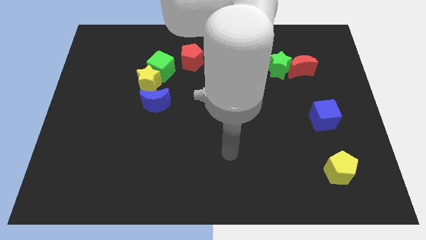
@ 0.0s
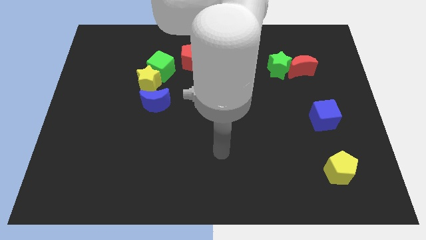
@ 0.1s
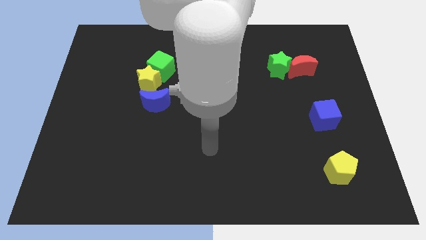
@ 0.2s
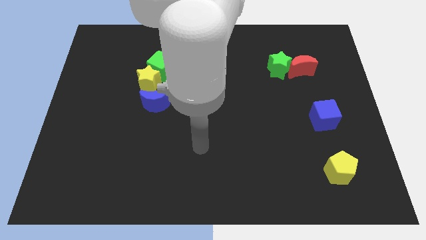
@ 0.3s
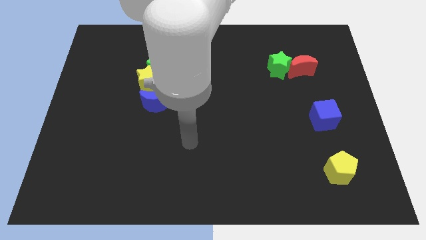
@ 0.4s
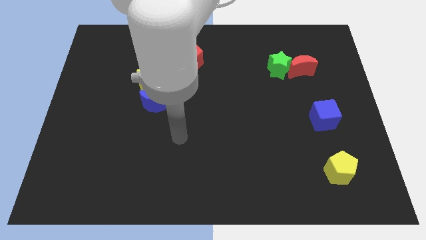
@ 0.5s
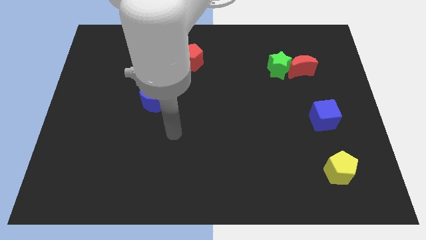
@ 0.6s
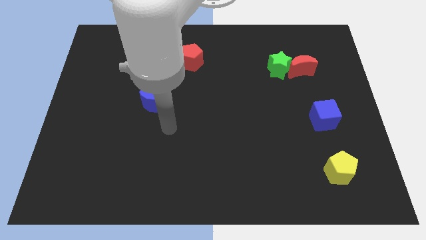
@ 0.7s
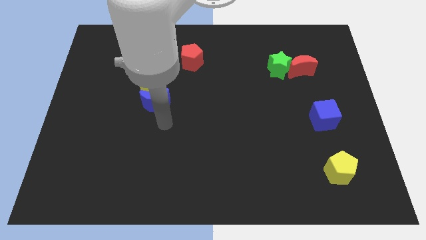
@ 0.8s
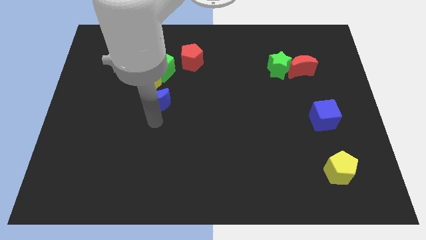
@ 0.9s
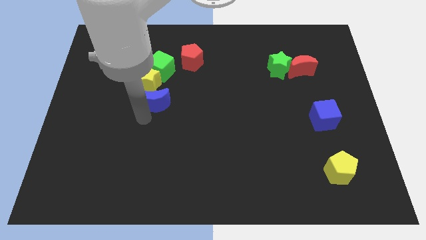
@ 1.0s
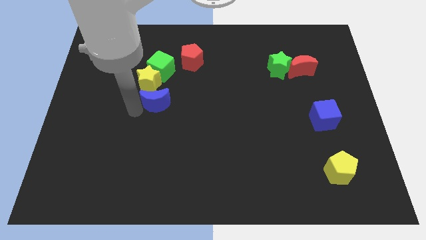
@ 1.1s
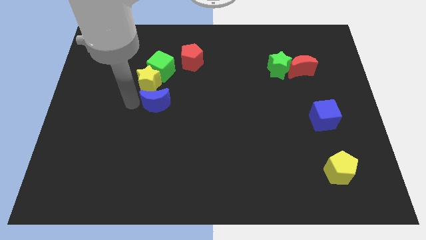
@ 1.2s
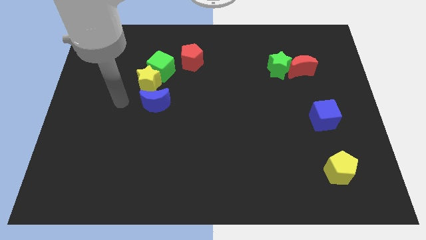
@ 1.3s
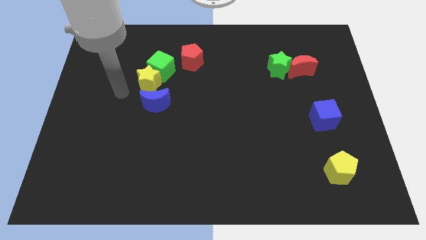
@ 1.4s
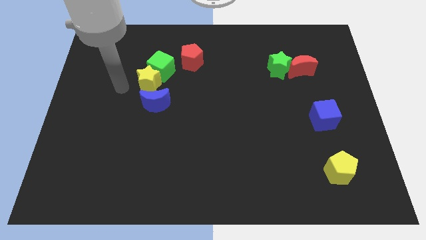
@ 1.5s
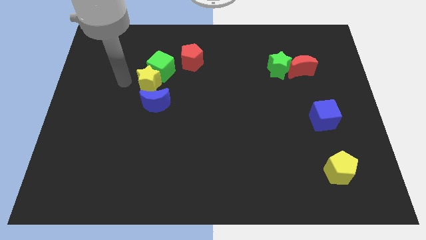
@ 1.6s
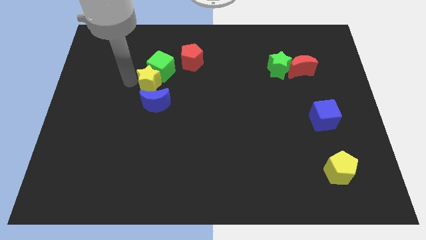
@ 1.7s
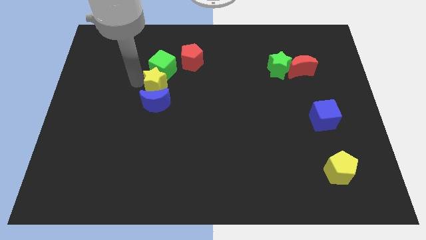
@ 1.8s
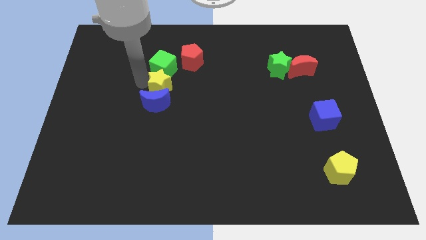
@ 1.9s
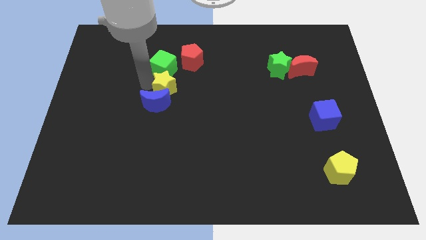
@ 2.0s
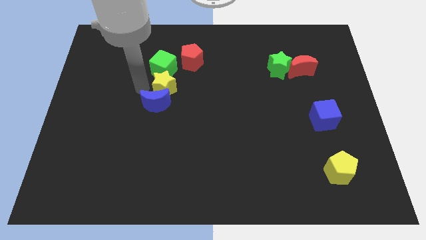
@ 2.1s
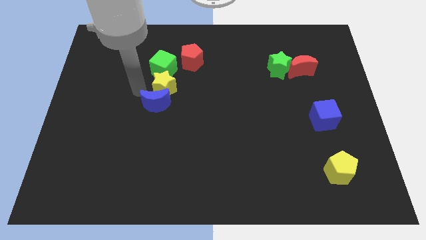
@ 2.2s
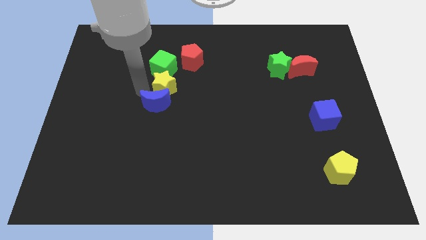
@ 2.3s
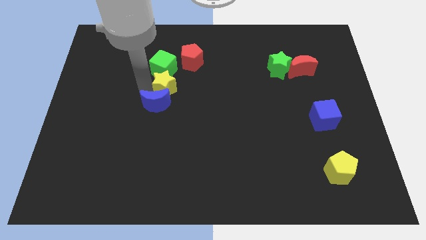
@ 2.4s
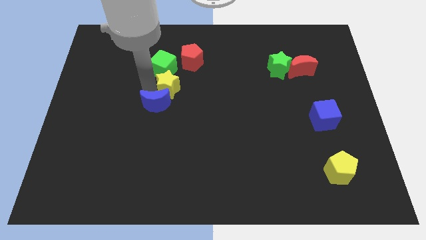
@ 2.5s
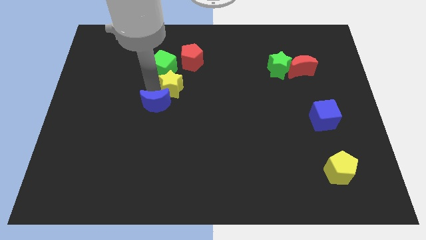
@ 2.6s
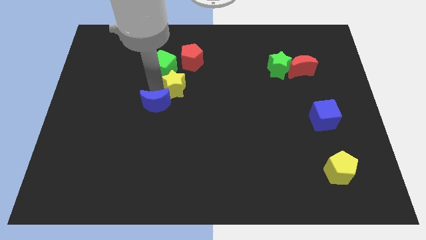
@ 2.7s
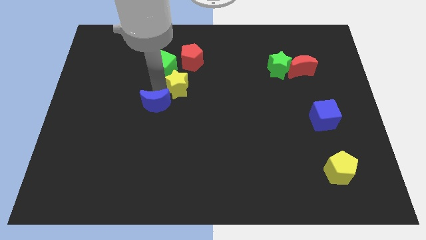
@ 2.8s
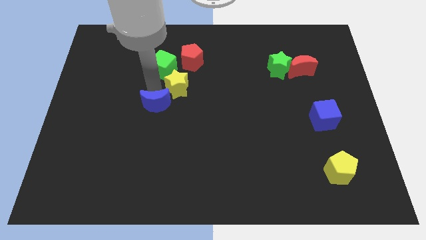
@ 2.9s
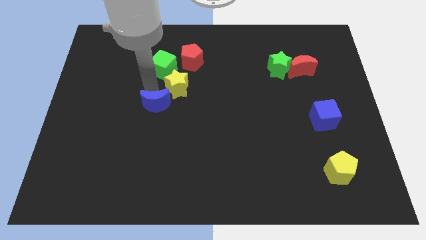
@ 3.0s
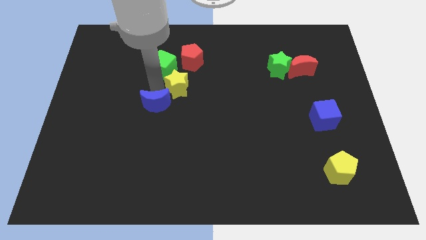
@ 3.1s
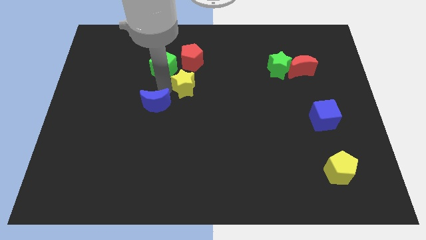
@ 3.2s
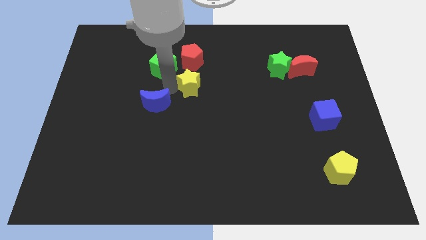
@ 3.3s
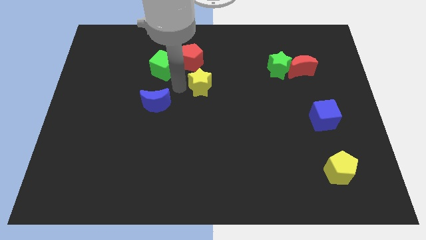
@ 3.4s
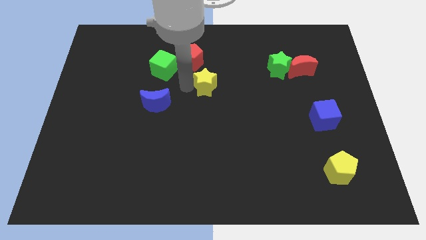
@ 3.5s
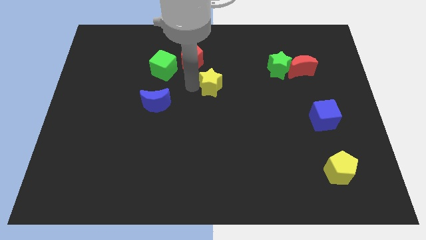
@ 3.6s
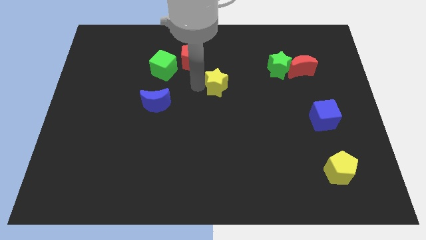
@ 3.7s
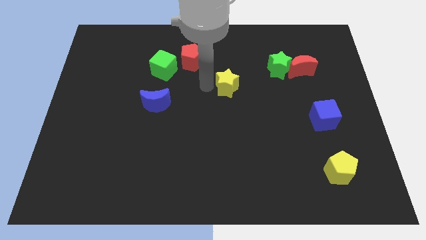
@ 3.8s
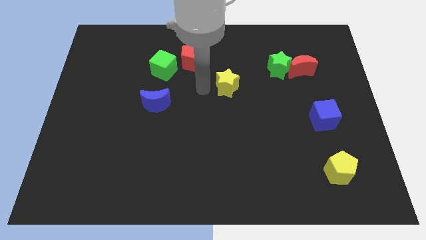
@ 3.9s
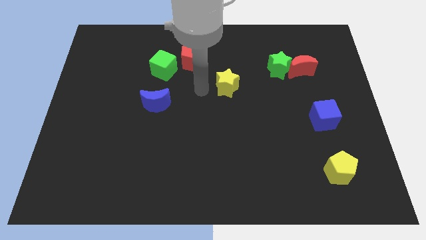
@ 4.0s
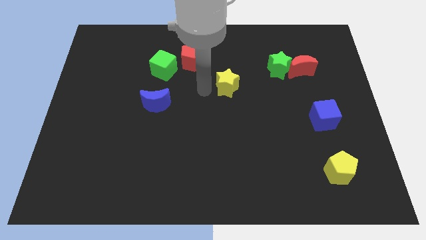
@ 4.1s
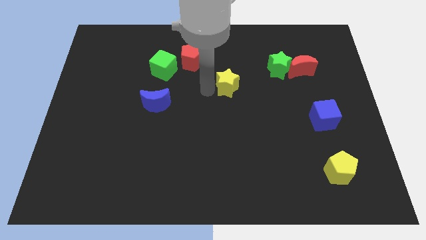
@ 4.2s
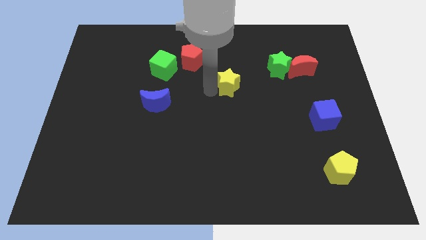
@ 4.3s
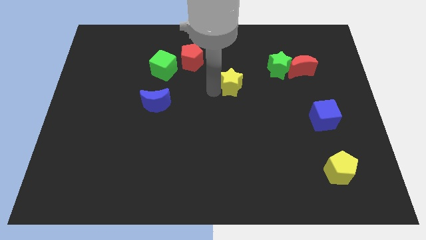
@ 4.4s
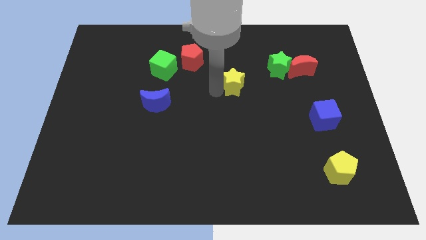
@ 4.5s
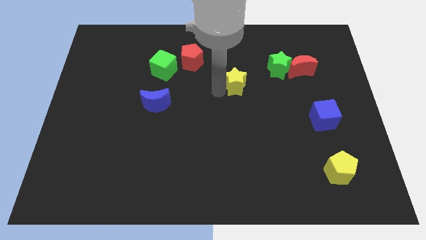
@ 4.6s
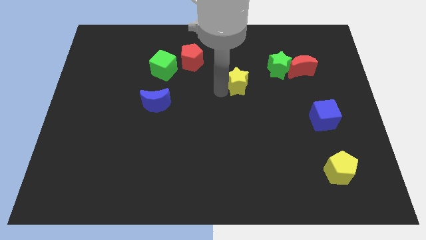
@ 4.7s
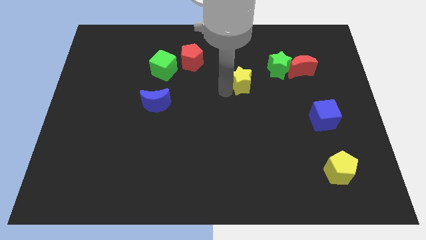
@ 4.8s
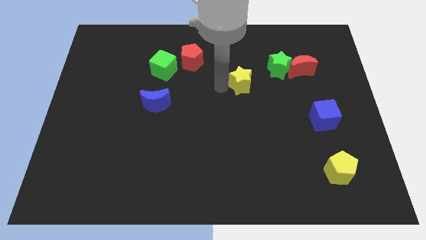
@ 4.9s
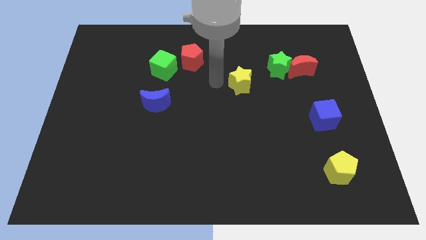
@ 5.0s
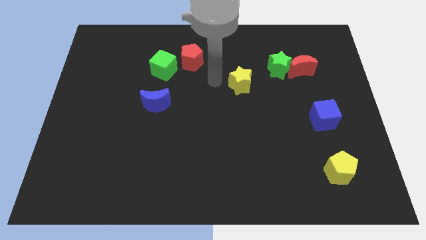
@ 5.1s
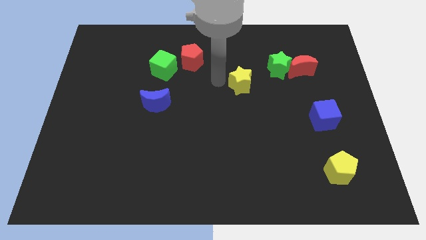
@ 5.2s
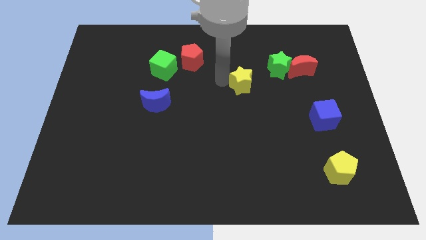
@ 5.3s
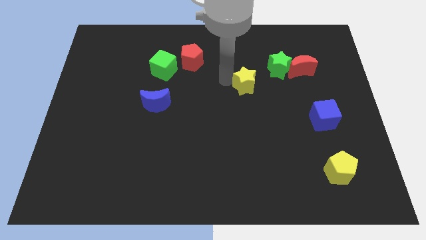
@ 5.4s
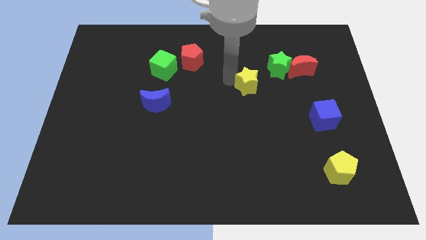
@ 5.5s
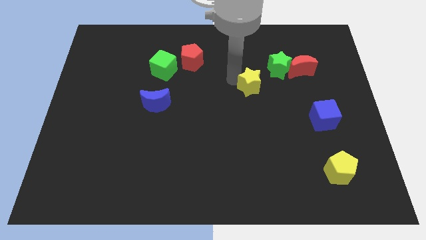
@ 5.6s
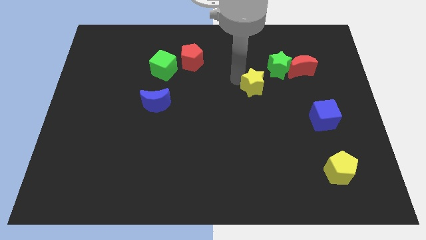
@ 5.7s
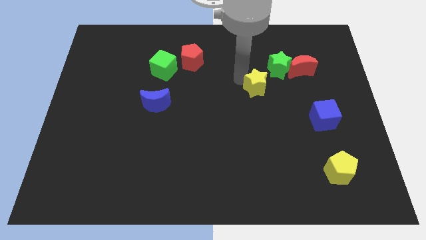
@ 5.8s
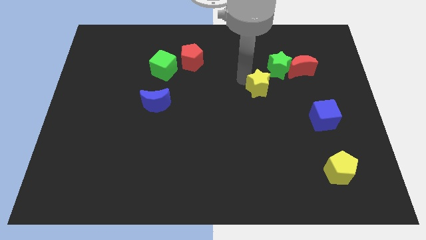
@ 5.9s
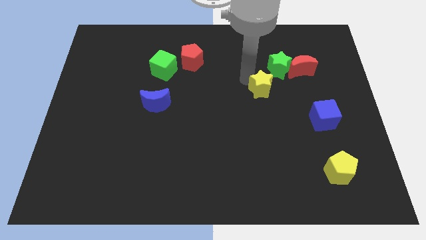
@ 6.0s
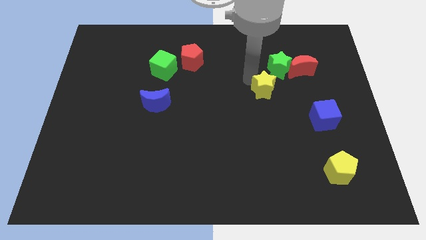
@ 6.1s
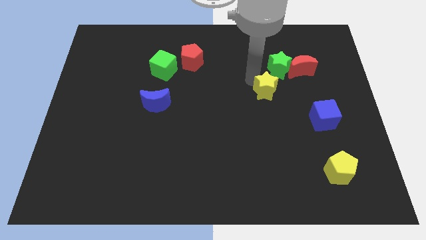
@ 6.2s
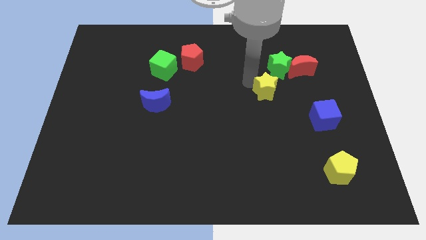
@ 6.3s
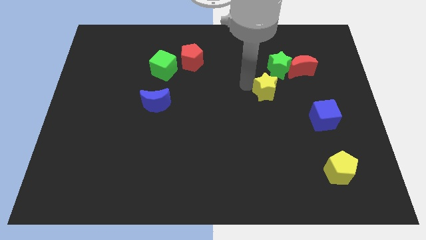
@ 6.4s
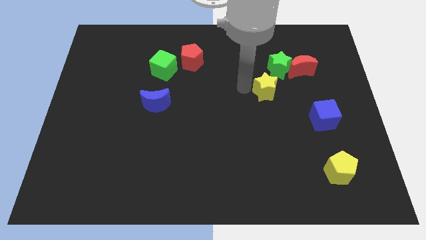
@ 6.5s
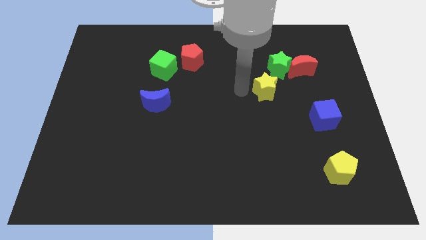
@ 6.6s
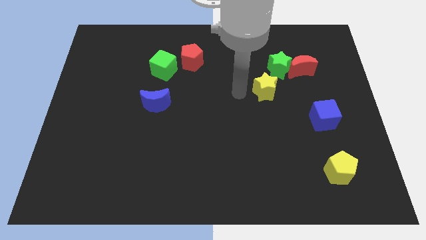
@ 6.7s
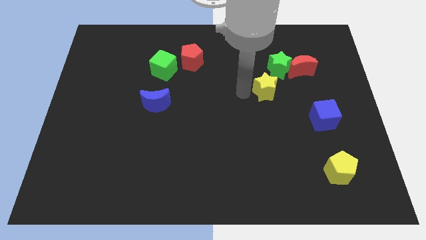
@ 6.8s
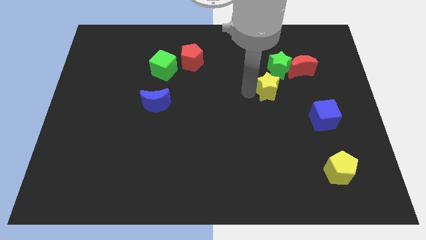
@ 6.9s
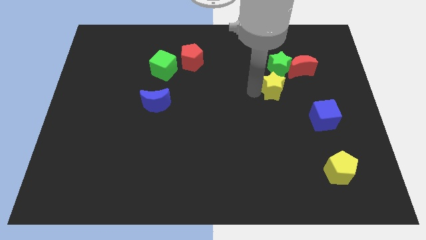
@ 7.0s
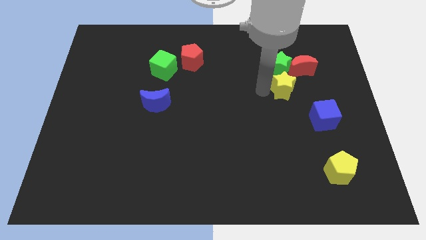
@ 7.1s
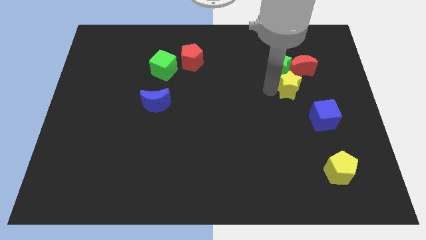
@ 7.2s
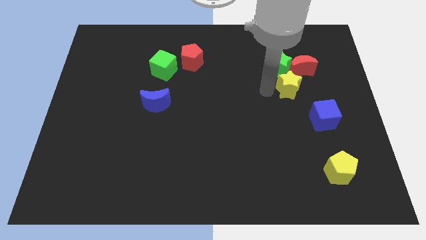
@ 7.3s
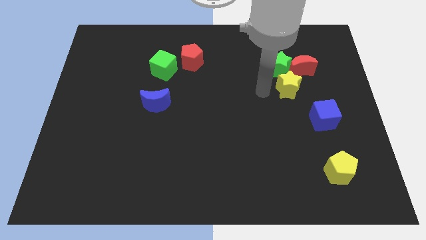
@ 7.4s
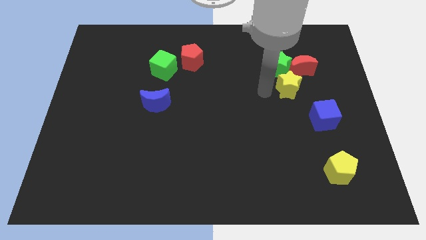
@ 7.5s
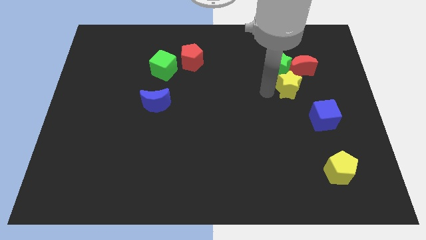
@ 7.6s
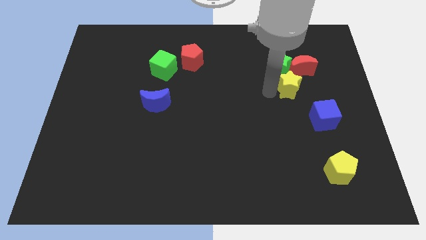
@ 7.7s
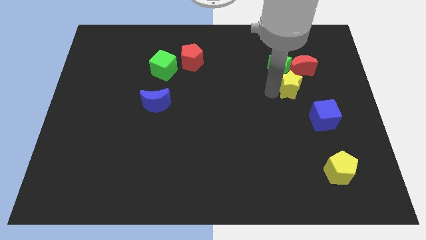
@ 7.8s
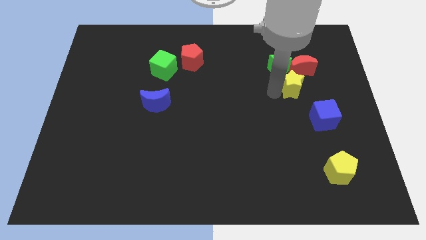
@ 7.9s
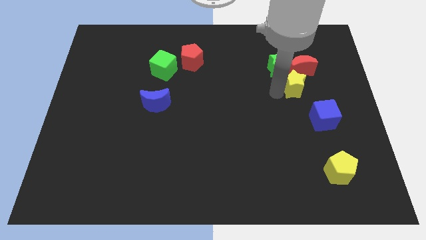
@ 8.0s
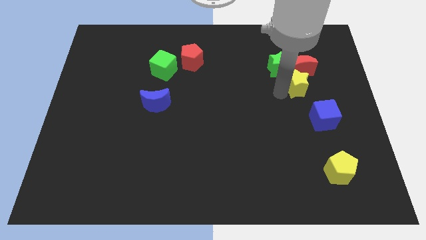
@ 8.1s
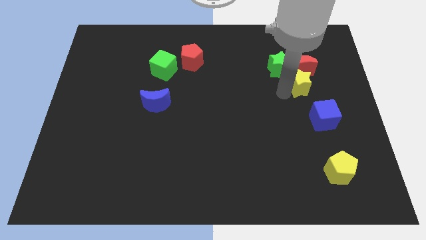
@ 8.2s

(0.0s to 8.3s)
move the yellow star to the bottom right of the red moon
